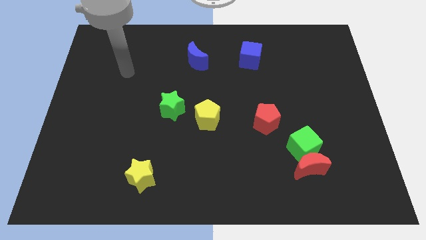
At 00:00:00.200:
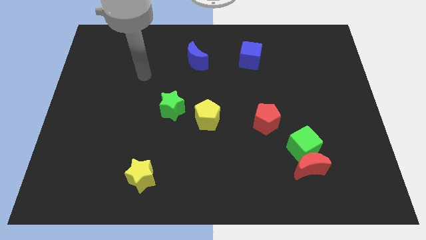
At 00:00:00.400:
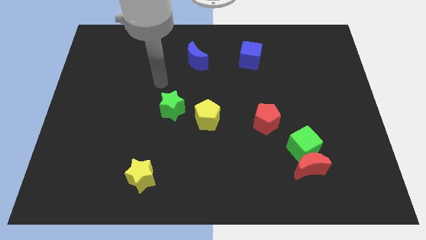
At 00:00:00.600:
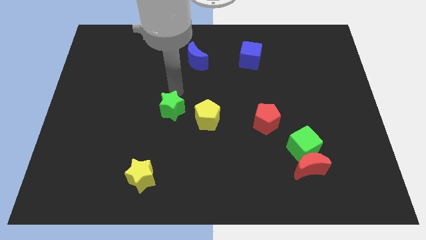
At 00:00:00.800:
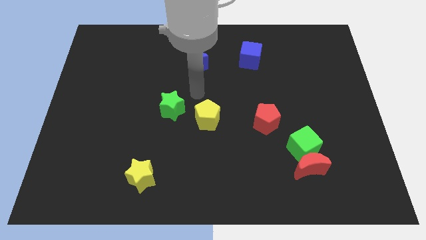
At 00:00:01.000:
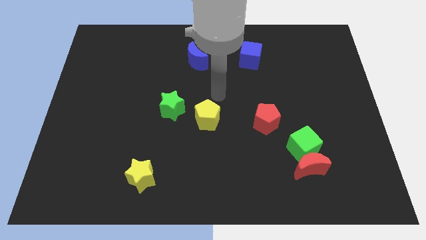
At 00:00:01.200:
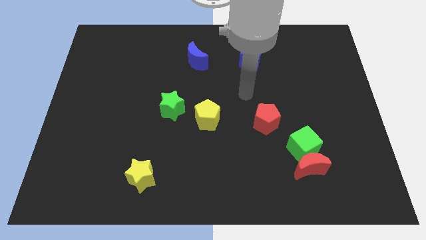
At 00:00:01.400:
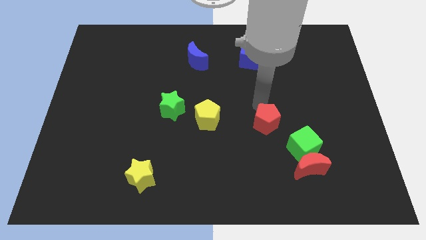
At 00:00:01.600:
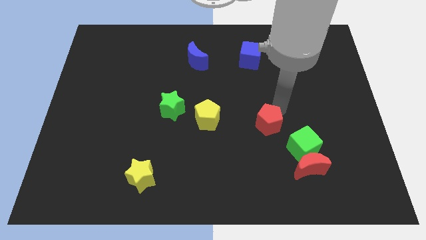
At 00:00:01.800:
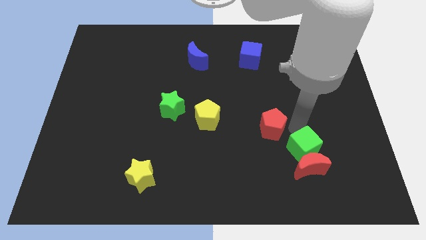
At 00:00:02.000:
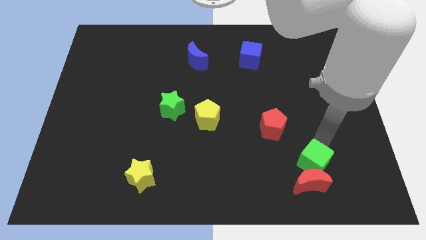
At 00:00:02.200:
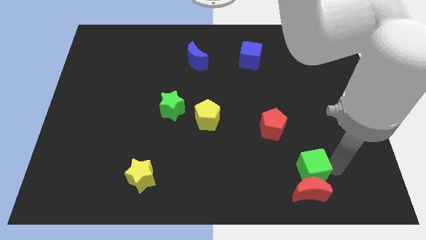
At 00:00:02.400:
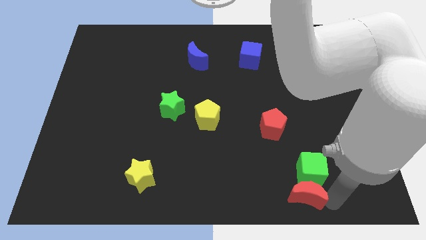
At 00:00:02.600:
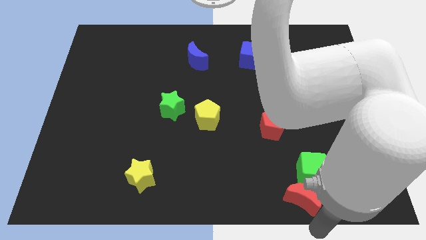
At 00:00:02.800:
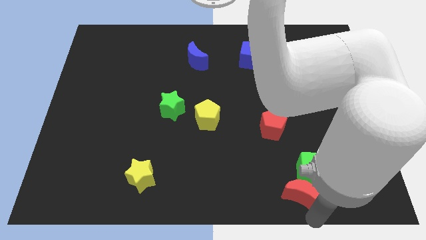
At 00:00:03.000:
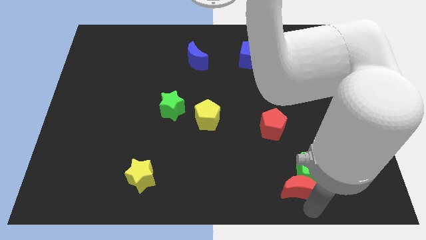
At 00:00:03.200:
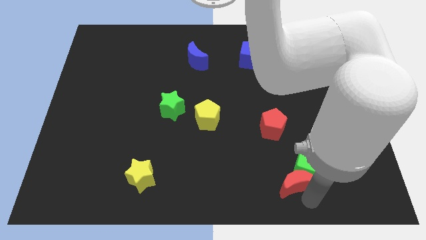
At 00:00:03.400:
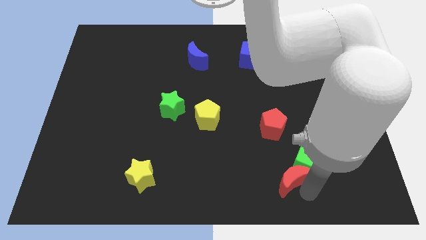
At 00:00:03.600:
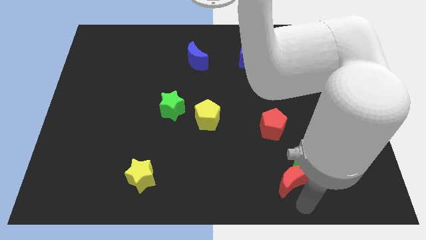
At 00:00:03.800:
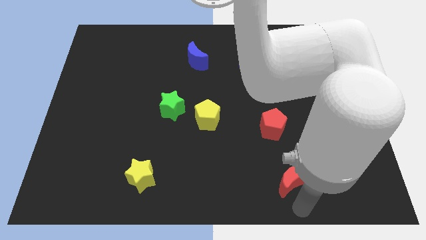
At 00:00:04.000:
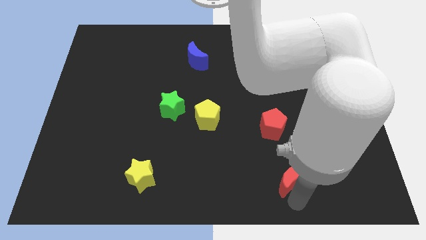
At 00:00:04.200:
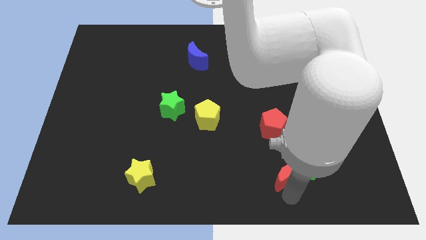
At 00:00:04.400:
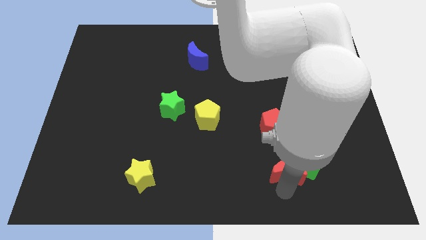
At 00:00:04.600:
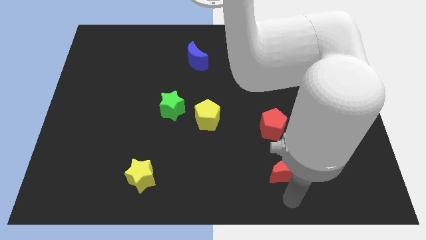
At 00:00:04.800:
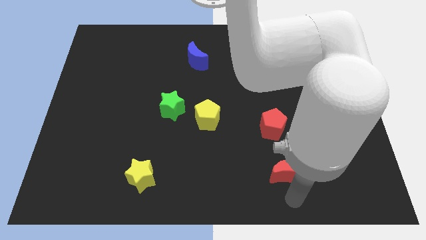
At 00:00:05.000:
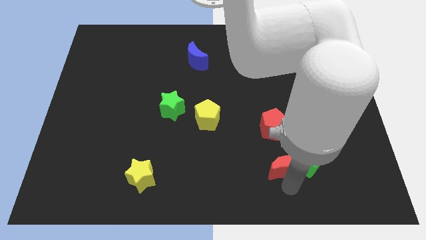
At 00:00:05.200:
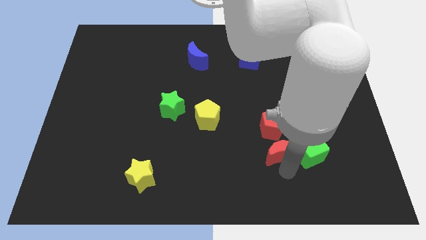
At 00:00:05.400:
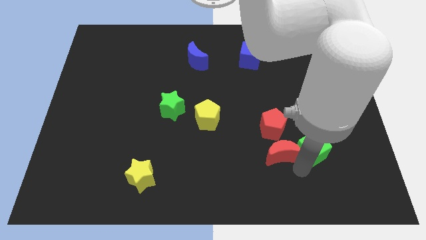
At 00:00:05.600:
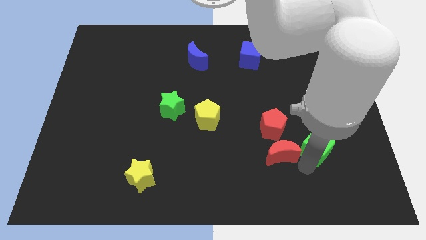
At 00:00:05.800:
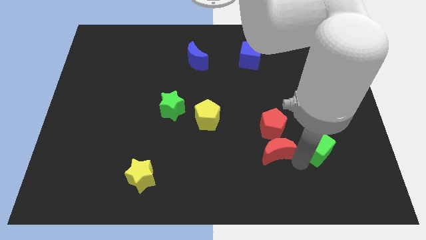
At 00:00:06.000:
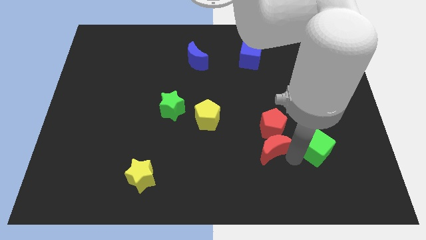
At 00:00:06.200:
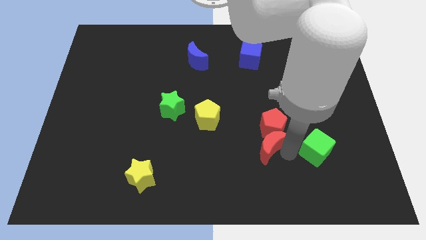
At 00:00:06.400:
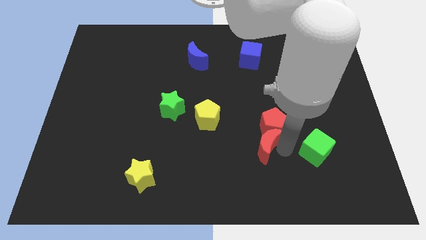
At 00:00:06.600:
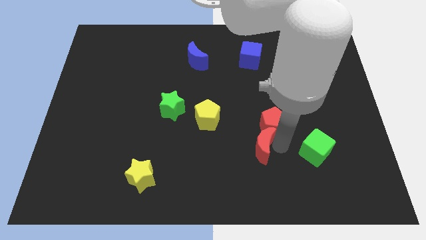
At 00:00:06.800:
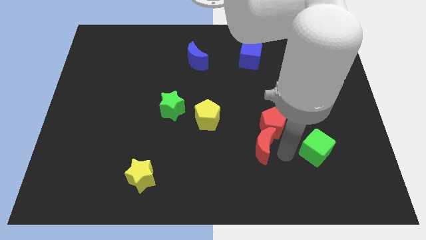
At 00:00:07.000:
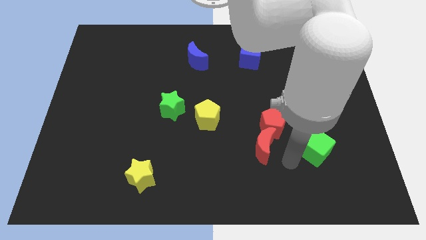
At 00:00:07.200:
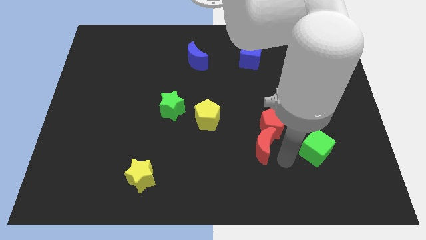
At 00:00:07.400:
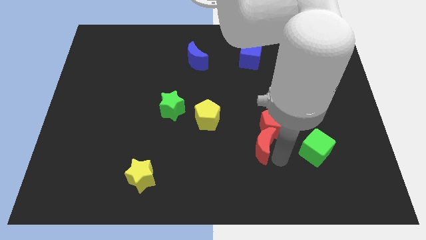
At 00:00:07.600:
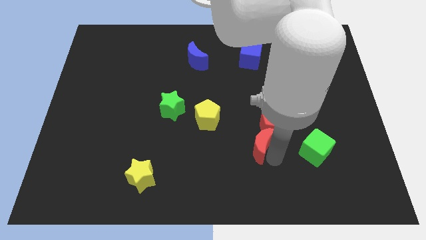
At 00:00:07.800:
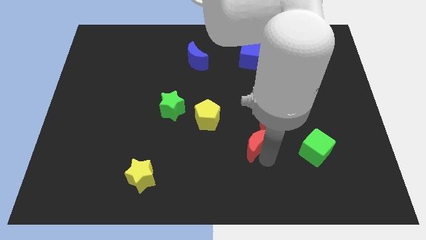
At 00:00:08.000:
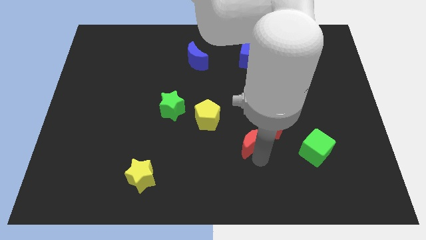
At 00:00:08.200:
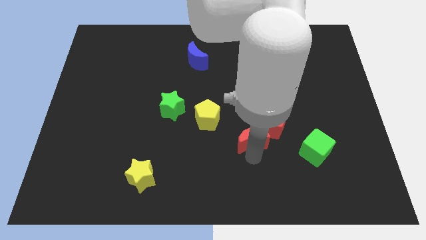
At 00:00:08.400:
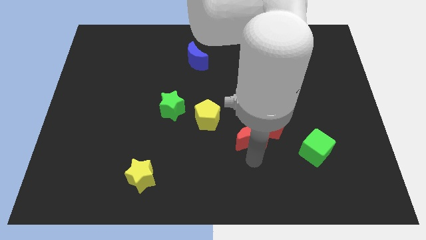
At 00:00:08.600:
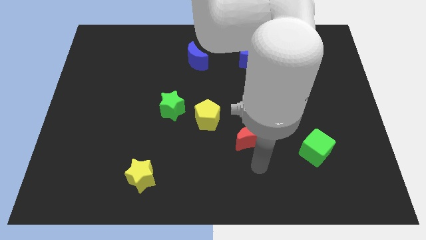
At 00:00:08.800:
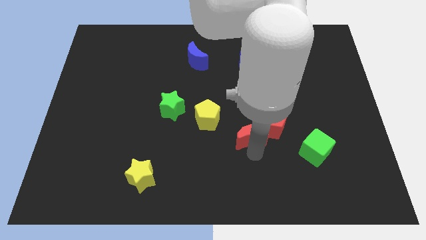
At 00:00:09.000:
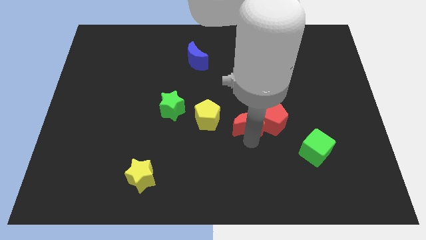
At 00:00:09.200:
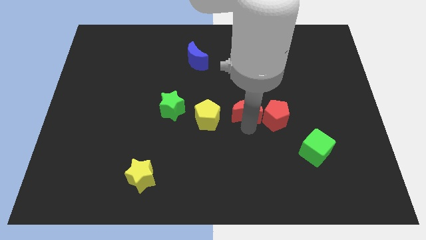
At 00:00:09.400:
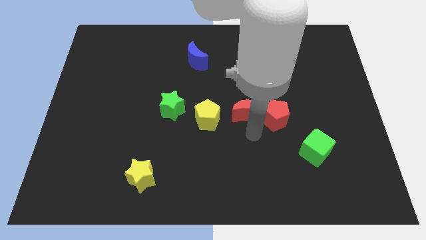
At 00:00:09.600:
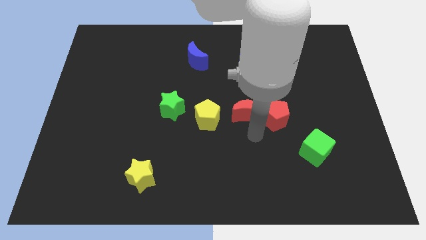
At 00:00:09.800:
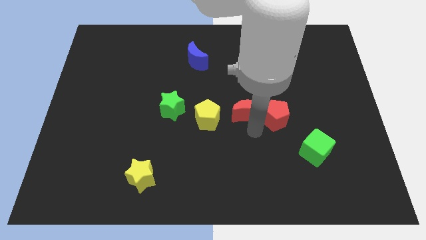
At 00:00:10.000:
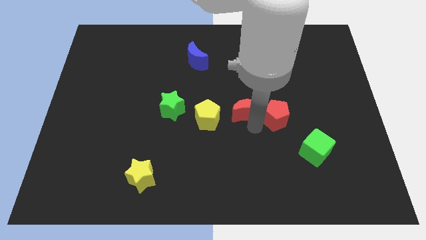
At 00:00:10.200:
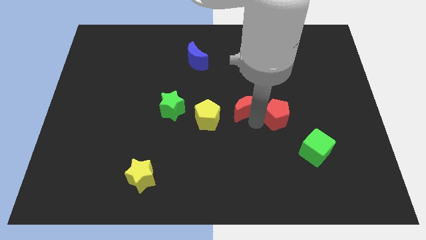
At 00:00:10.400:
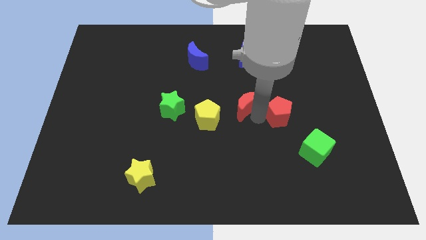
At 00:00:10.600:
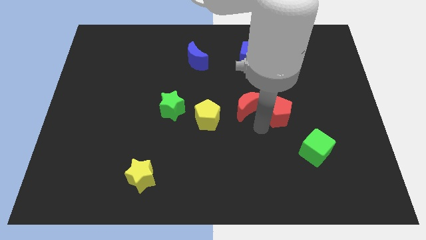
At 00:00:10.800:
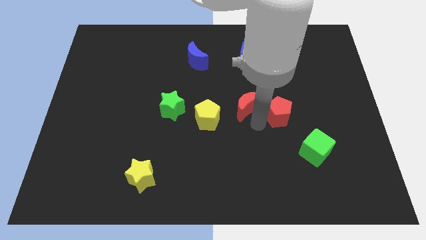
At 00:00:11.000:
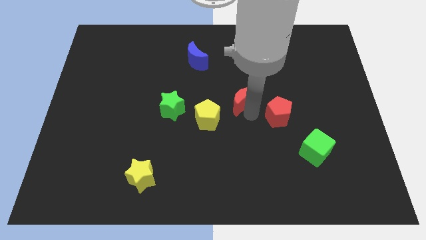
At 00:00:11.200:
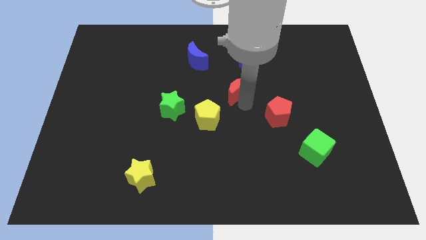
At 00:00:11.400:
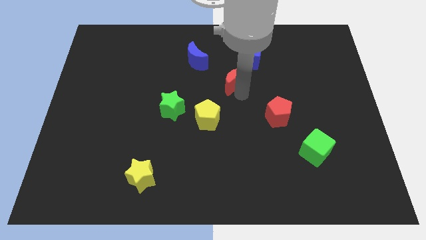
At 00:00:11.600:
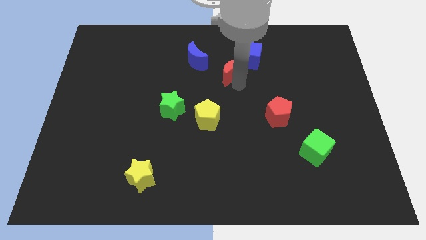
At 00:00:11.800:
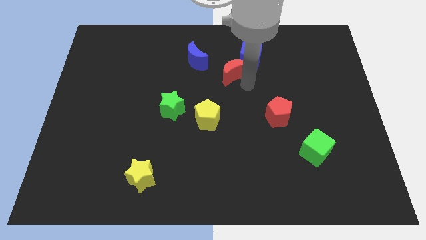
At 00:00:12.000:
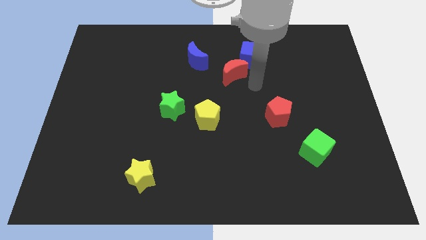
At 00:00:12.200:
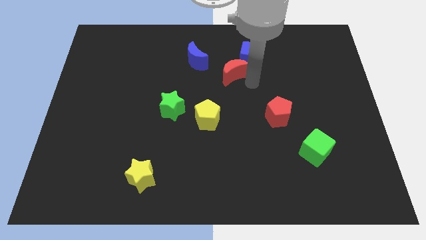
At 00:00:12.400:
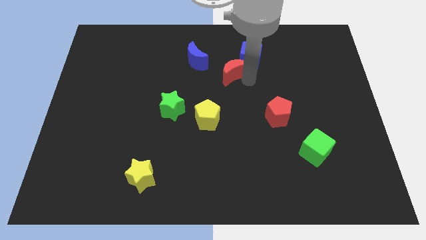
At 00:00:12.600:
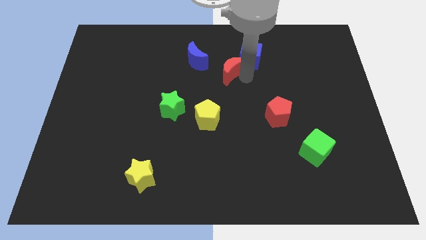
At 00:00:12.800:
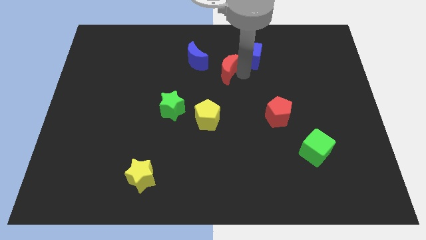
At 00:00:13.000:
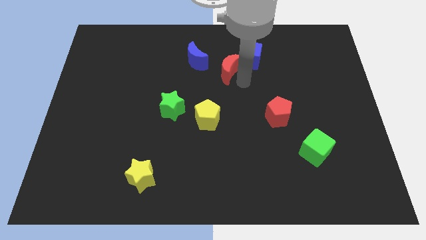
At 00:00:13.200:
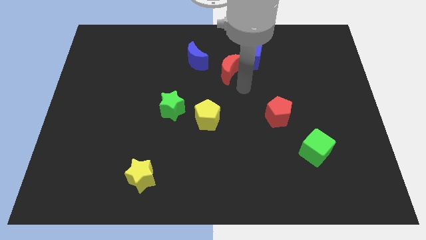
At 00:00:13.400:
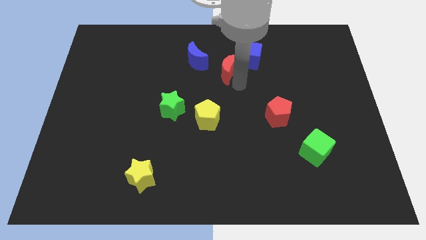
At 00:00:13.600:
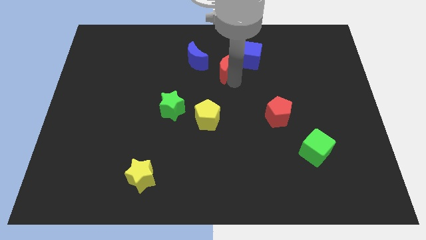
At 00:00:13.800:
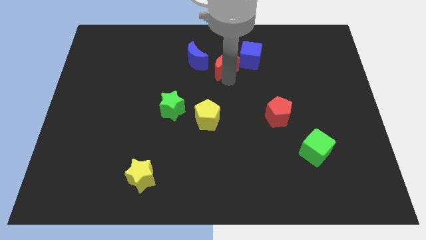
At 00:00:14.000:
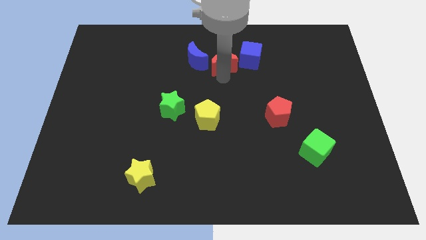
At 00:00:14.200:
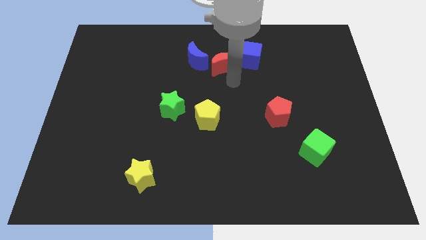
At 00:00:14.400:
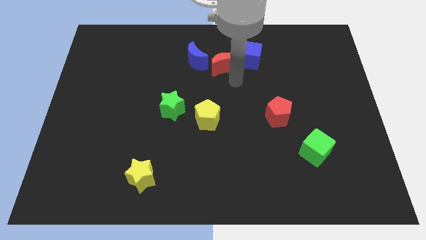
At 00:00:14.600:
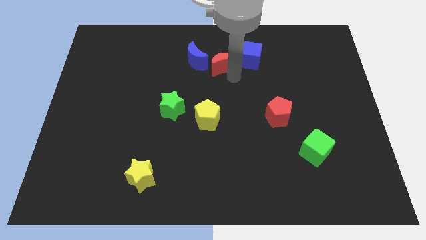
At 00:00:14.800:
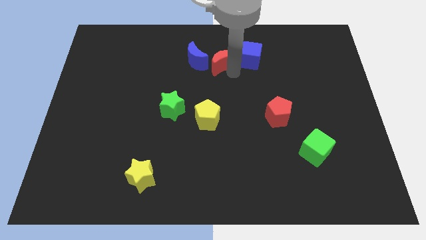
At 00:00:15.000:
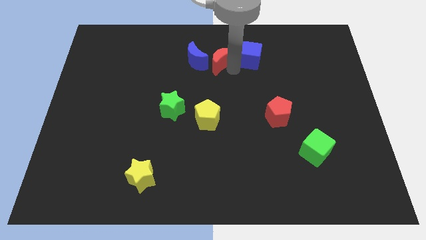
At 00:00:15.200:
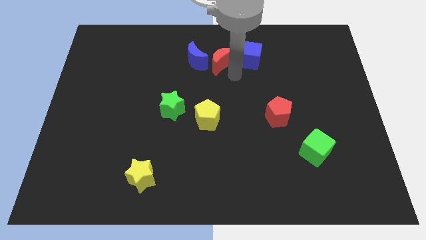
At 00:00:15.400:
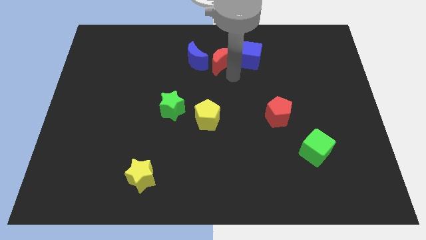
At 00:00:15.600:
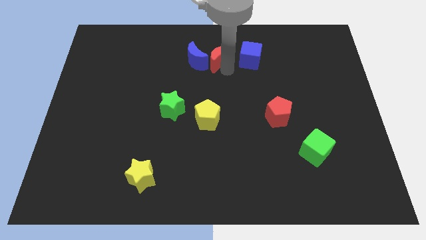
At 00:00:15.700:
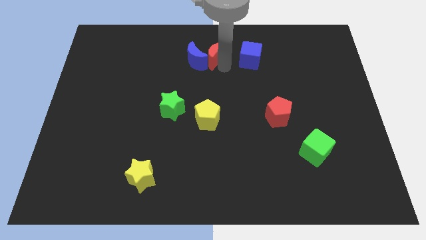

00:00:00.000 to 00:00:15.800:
put the red moon to the top
